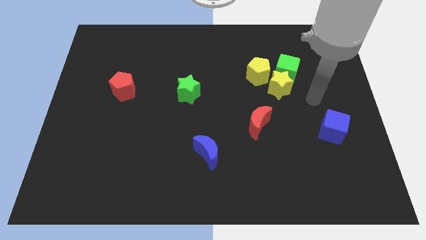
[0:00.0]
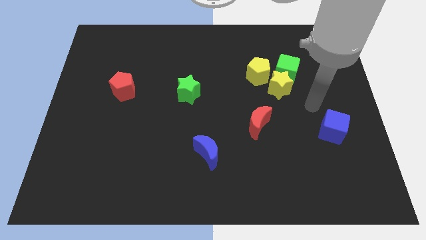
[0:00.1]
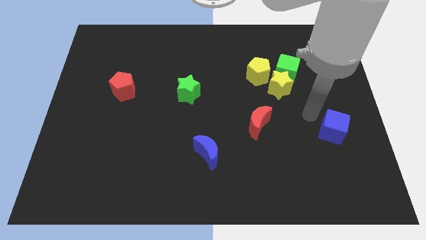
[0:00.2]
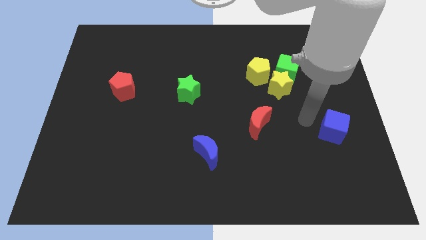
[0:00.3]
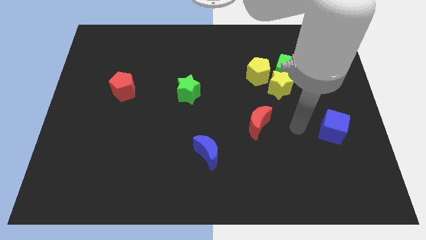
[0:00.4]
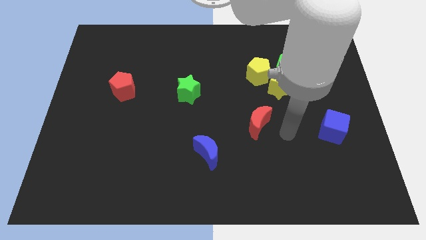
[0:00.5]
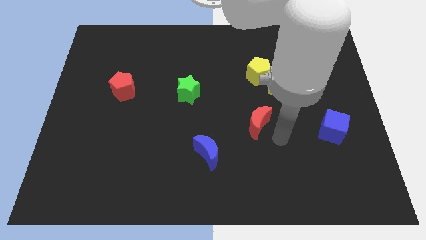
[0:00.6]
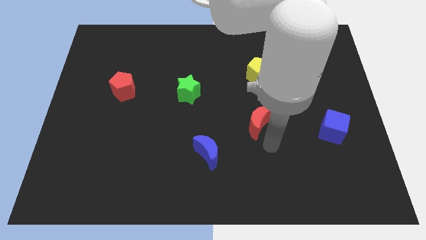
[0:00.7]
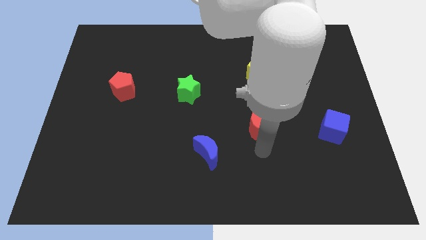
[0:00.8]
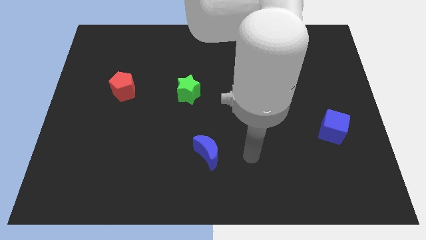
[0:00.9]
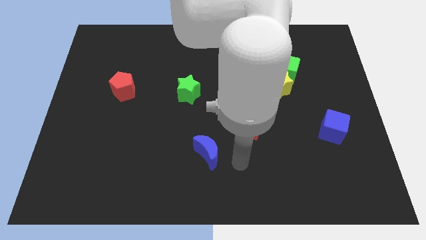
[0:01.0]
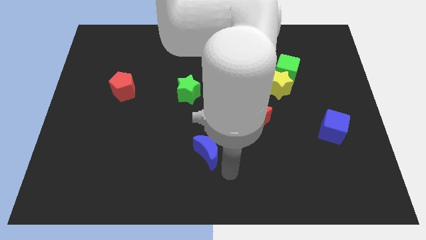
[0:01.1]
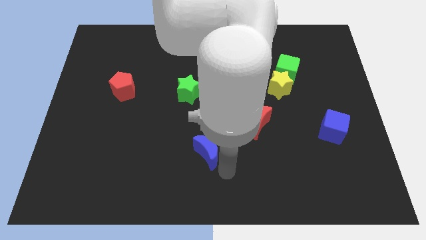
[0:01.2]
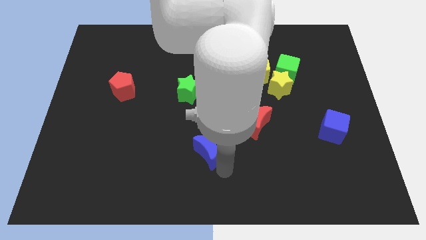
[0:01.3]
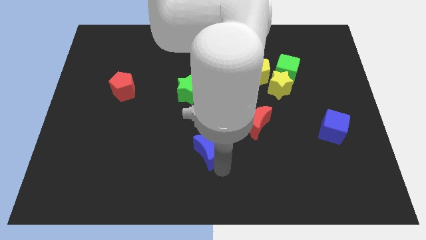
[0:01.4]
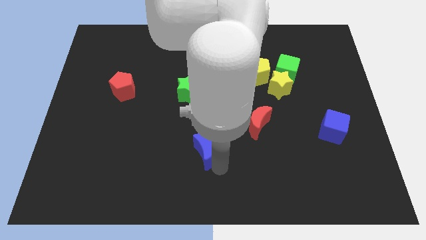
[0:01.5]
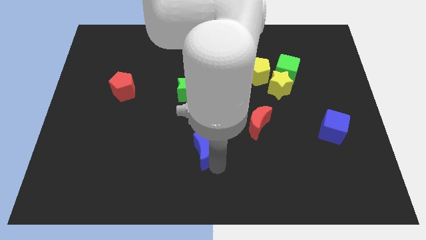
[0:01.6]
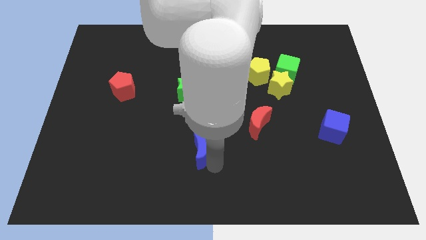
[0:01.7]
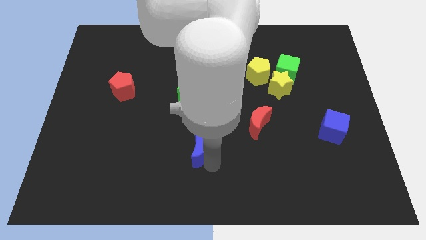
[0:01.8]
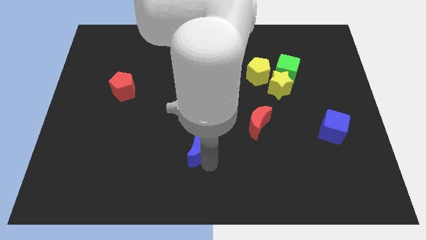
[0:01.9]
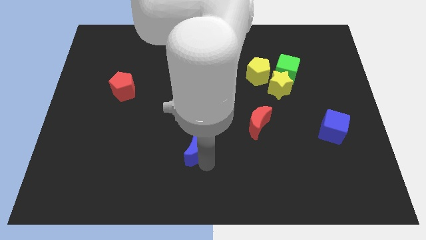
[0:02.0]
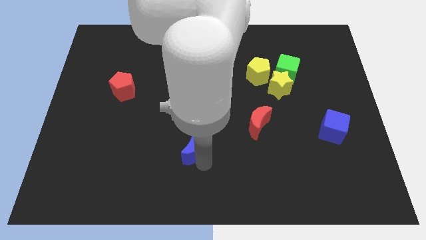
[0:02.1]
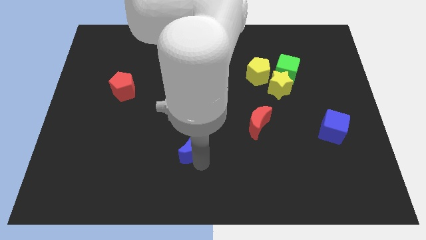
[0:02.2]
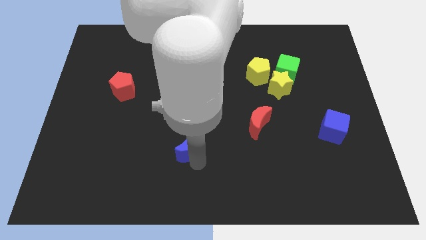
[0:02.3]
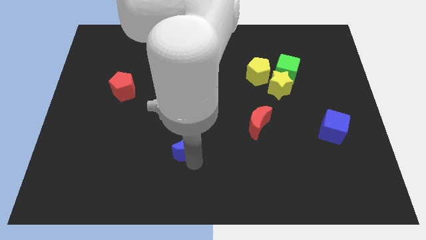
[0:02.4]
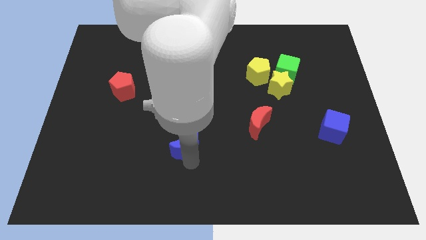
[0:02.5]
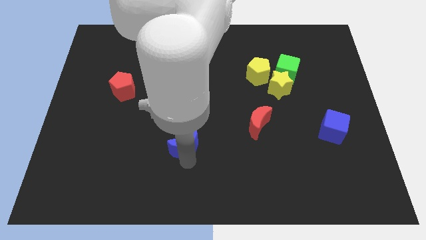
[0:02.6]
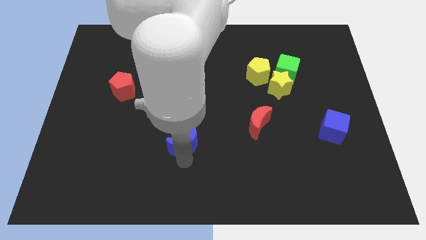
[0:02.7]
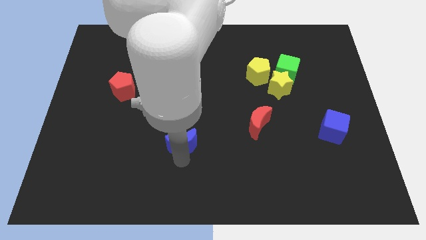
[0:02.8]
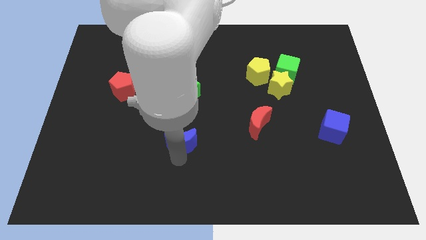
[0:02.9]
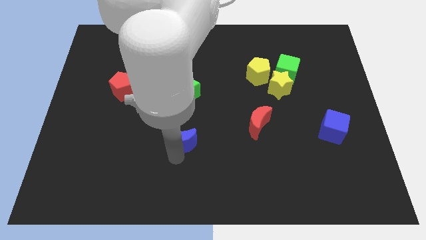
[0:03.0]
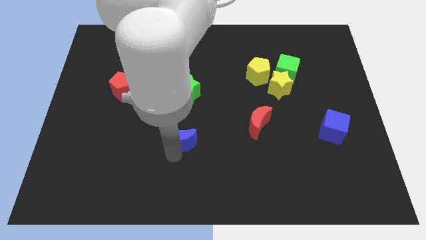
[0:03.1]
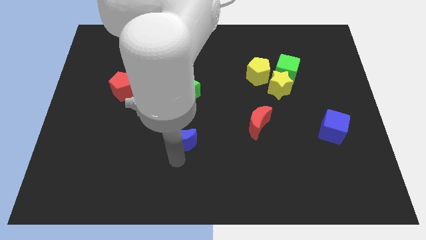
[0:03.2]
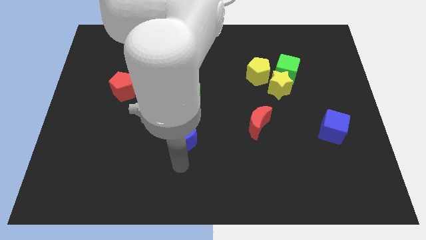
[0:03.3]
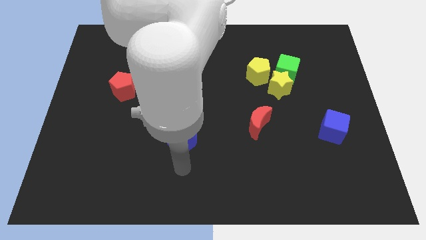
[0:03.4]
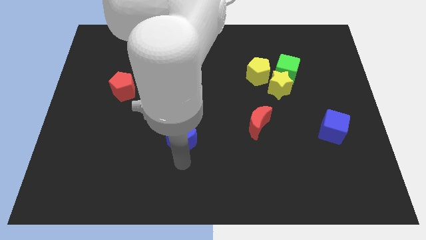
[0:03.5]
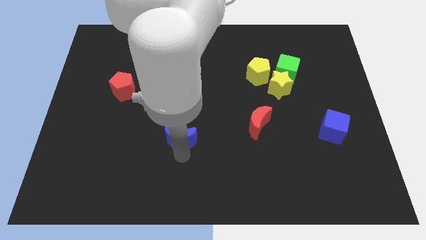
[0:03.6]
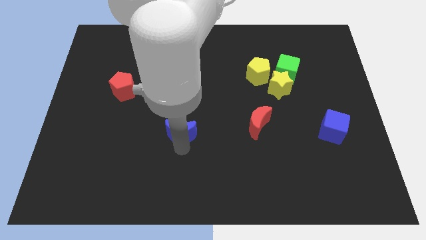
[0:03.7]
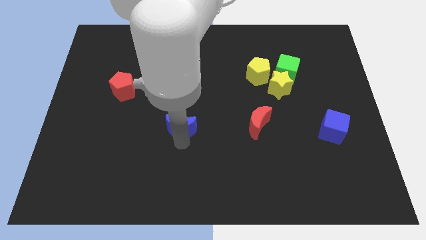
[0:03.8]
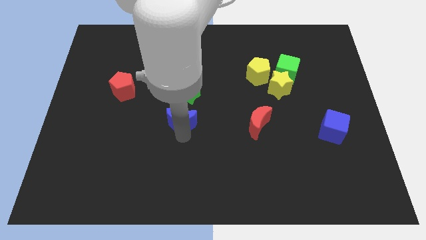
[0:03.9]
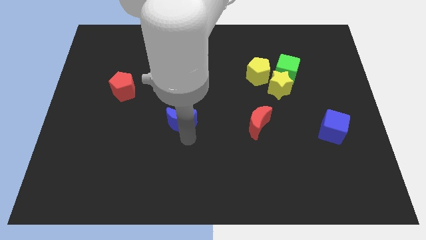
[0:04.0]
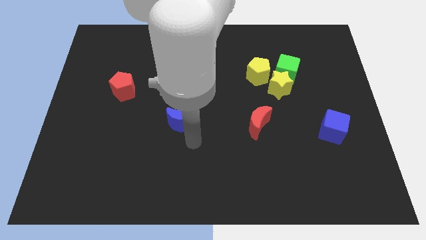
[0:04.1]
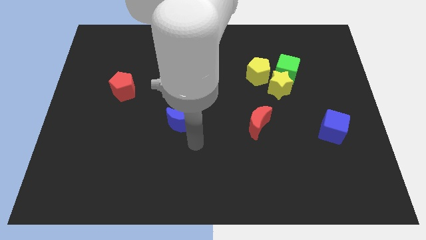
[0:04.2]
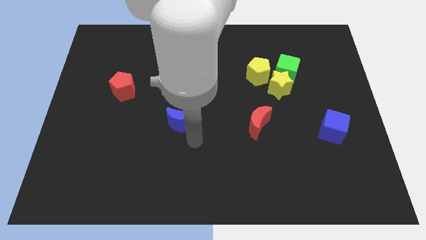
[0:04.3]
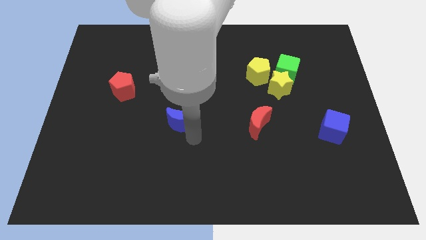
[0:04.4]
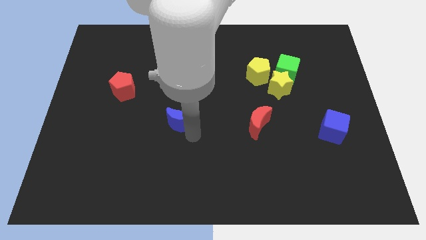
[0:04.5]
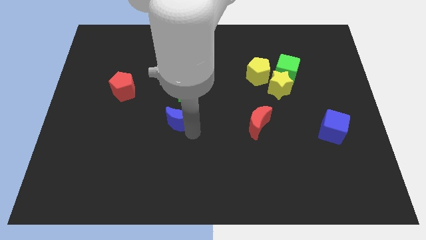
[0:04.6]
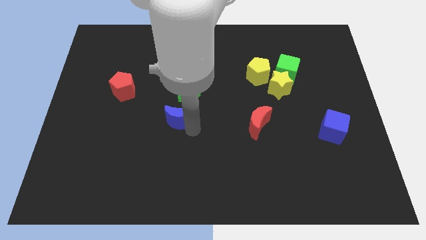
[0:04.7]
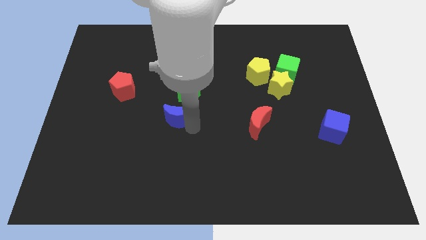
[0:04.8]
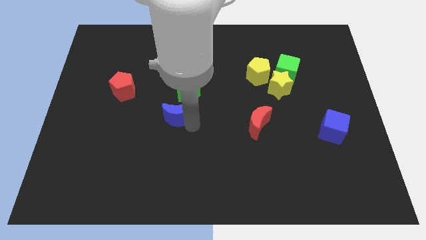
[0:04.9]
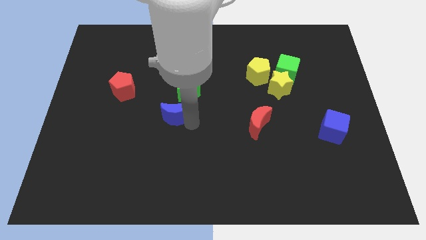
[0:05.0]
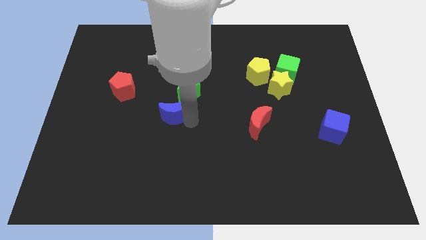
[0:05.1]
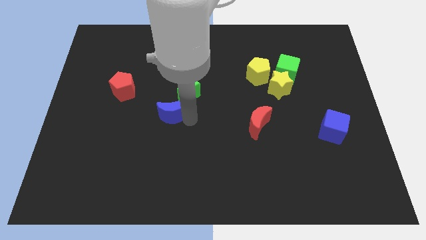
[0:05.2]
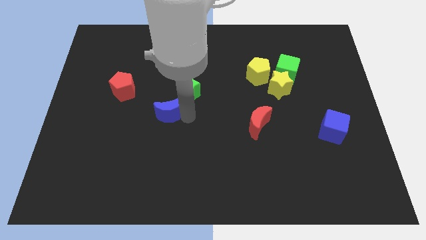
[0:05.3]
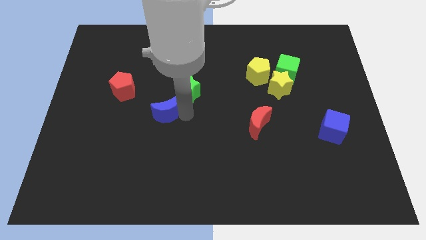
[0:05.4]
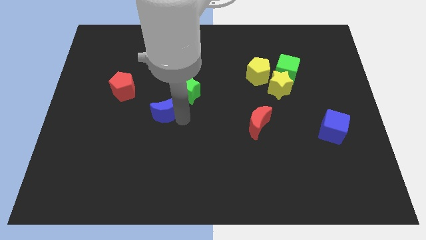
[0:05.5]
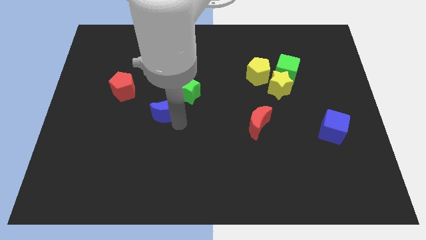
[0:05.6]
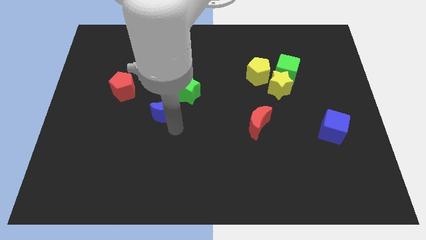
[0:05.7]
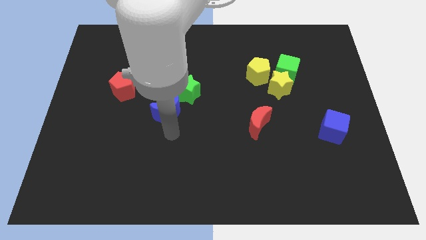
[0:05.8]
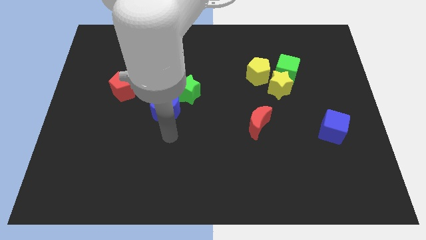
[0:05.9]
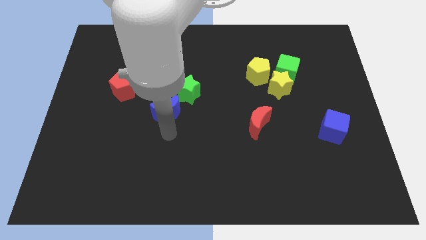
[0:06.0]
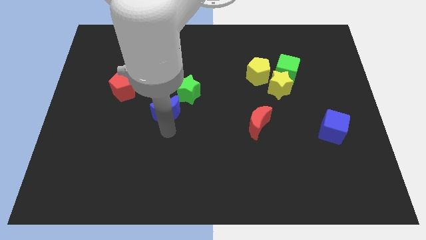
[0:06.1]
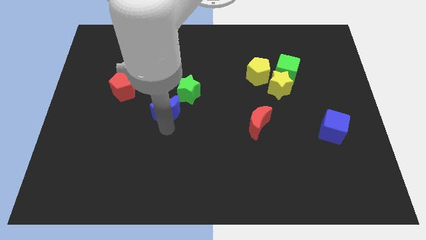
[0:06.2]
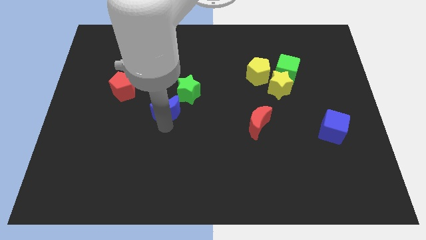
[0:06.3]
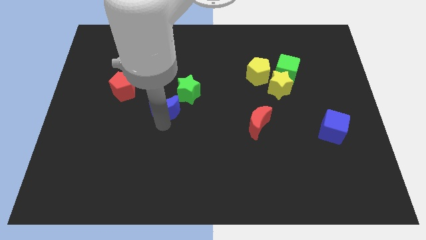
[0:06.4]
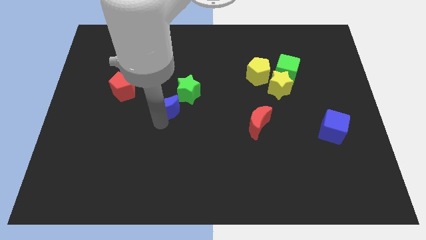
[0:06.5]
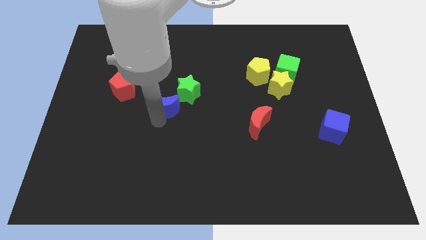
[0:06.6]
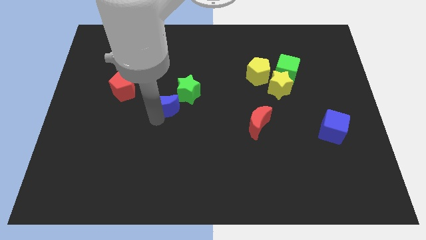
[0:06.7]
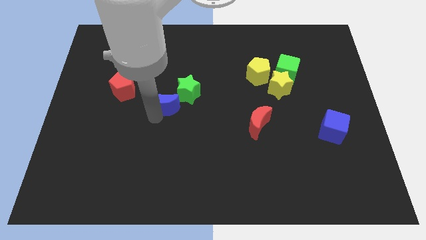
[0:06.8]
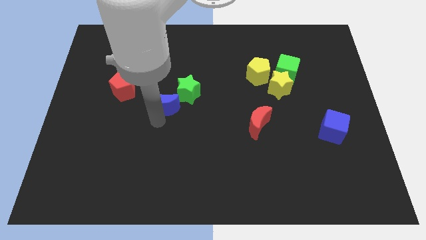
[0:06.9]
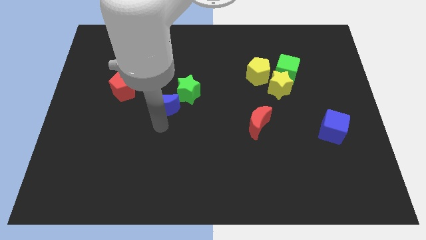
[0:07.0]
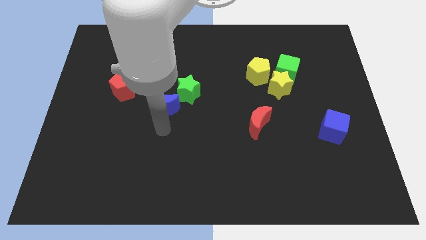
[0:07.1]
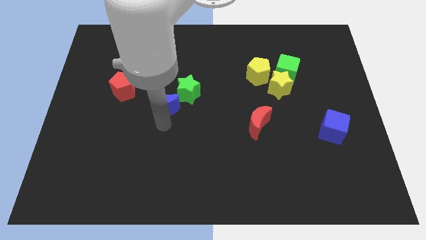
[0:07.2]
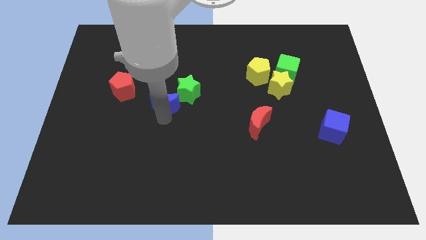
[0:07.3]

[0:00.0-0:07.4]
move the blue moon to the right of the red pentagon

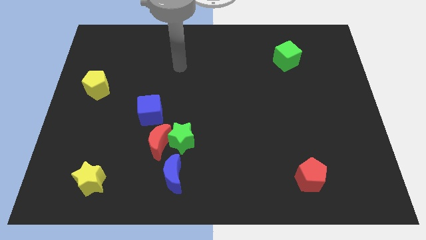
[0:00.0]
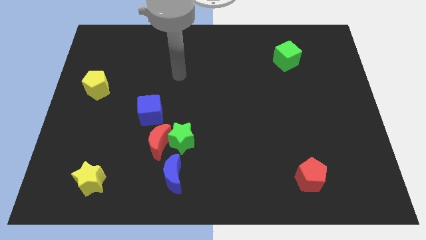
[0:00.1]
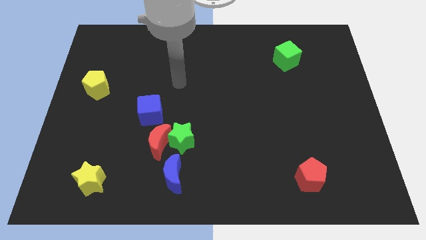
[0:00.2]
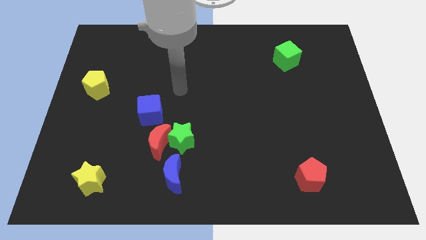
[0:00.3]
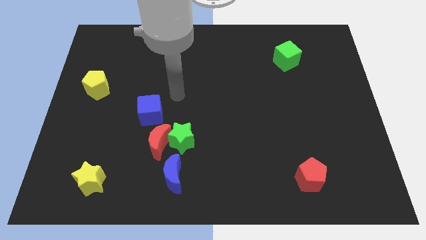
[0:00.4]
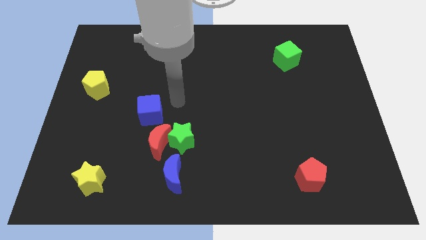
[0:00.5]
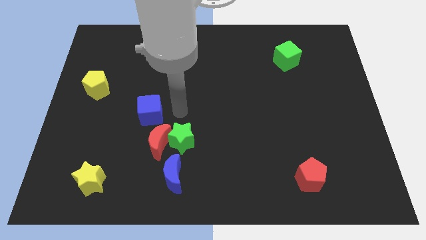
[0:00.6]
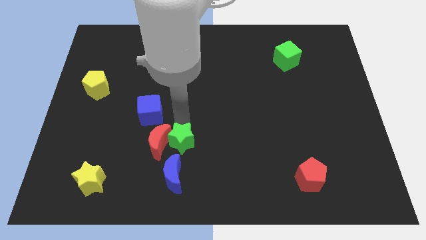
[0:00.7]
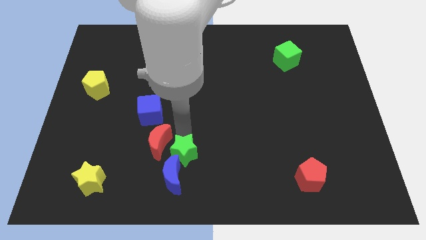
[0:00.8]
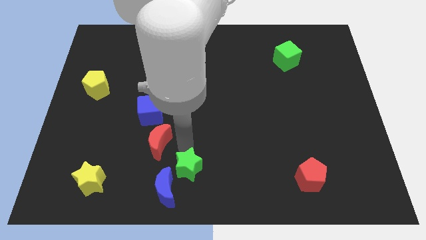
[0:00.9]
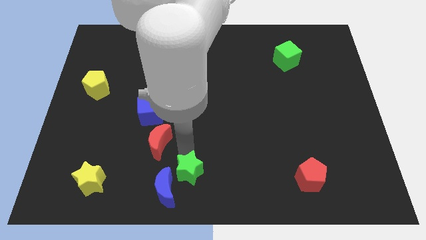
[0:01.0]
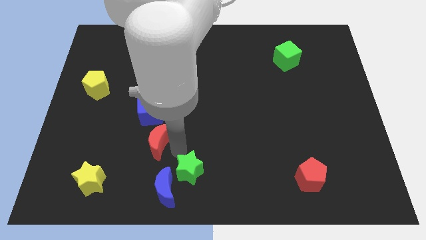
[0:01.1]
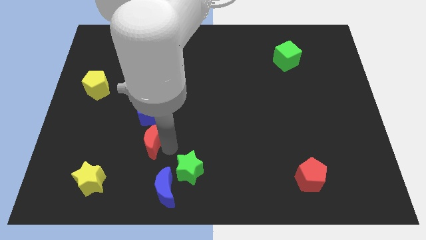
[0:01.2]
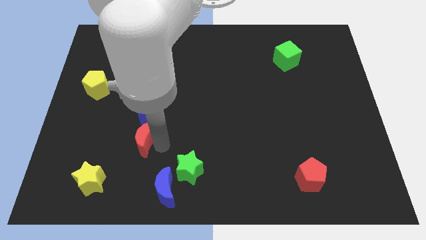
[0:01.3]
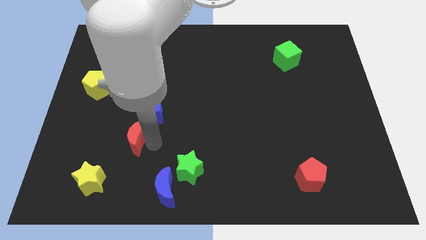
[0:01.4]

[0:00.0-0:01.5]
slide the red moon diagonally down and to the left of the blue cube
